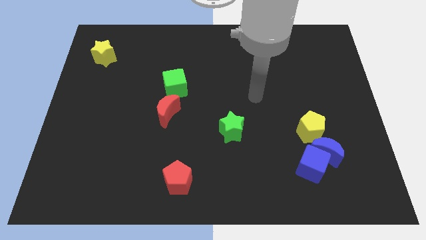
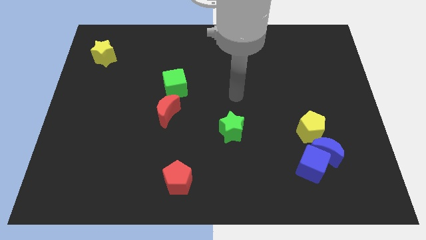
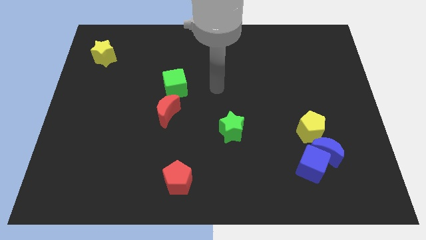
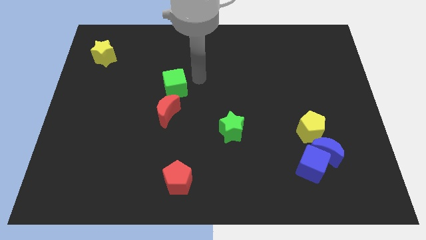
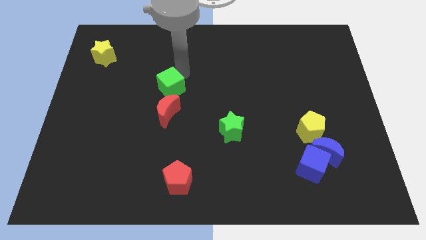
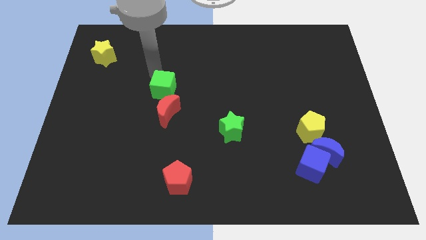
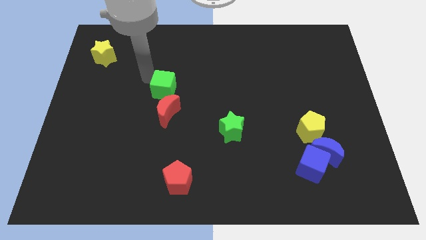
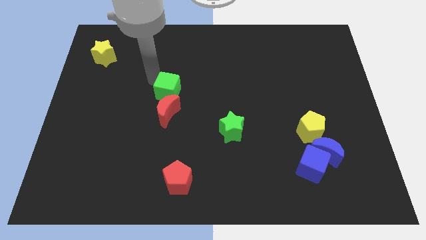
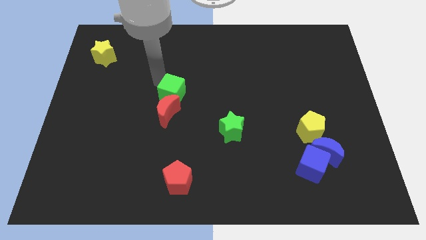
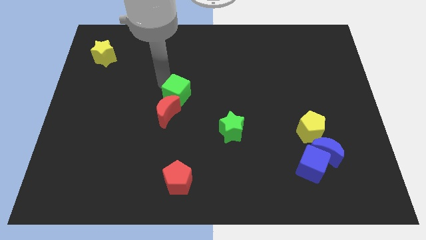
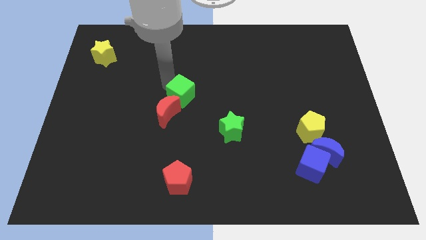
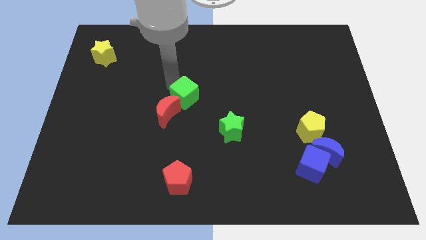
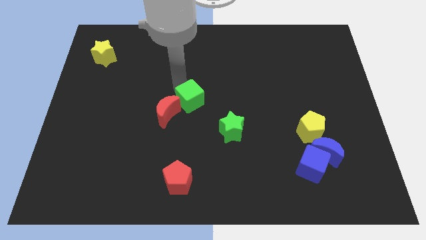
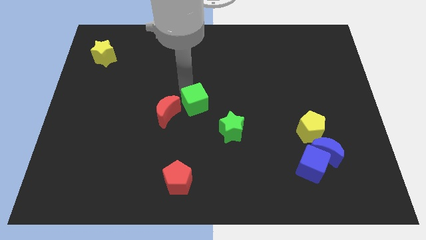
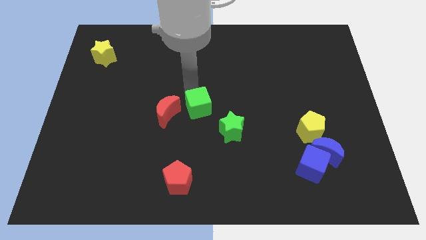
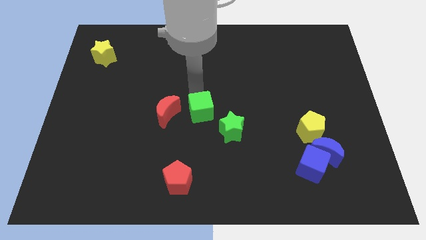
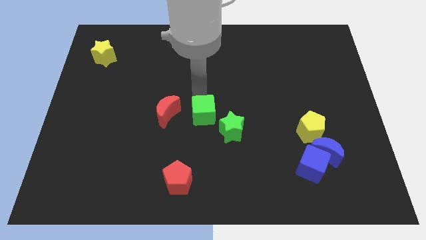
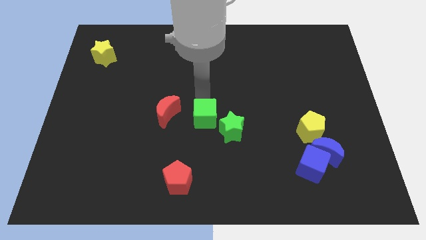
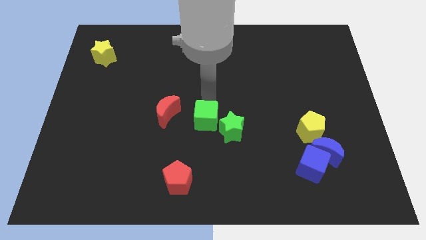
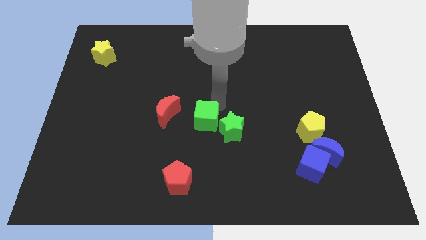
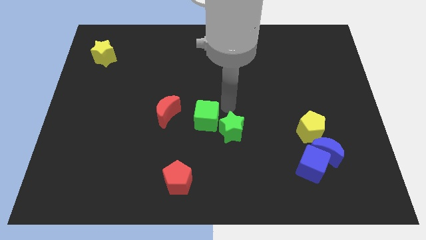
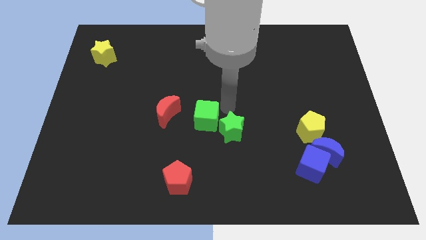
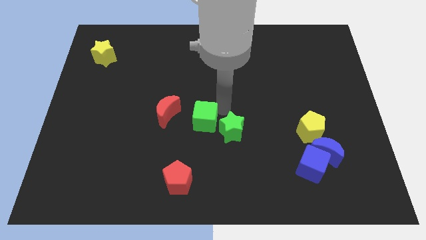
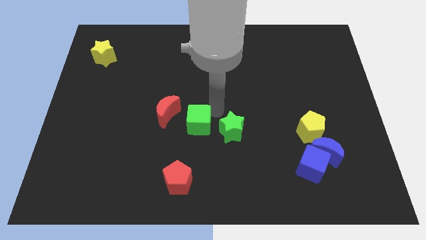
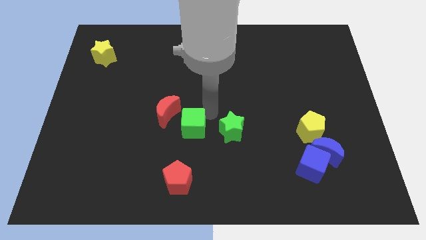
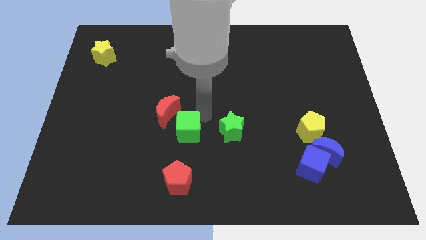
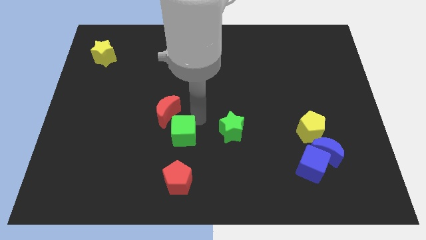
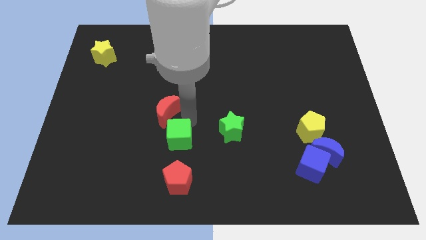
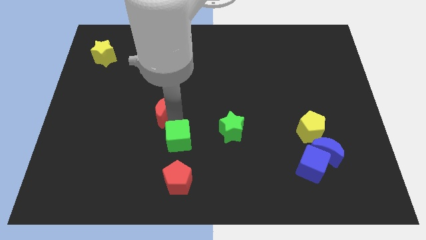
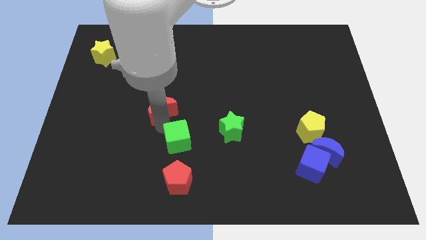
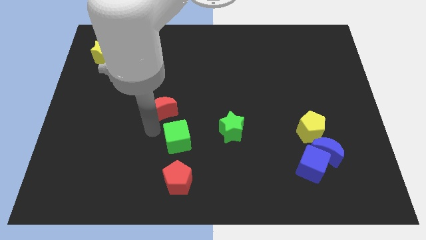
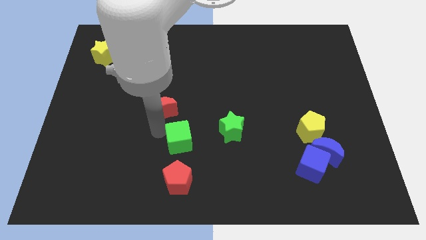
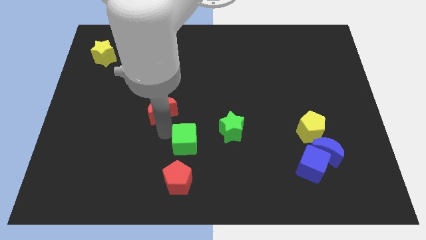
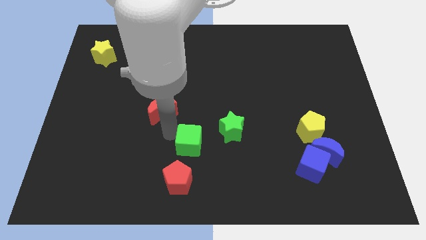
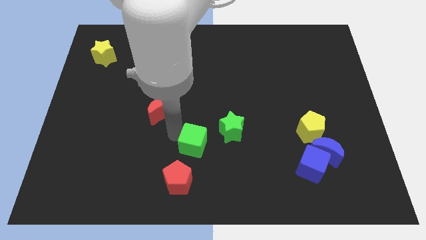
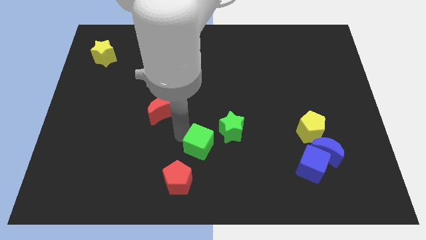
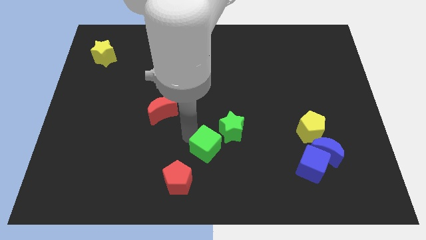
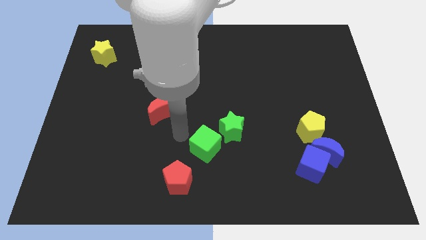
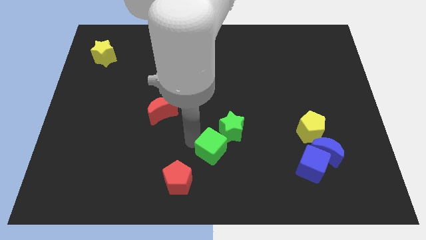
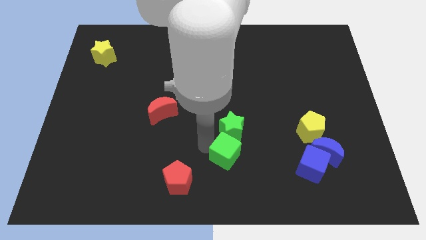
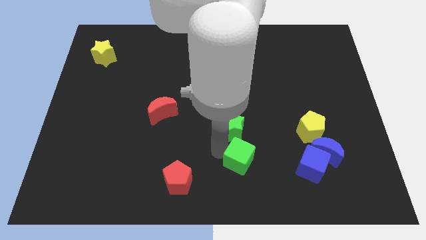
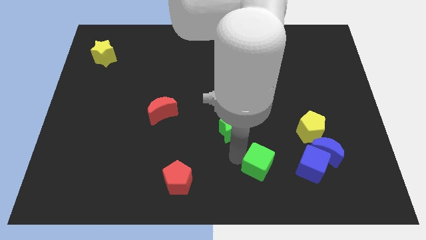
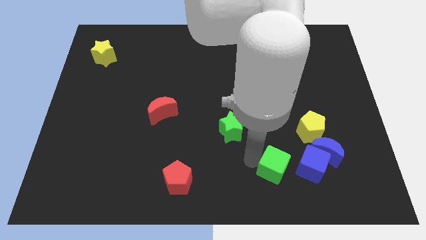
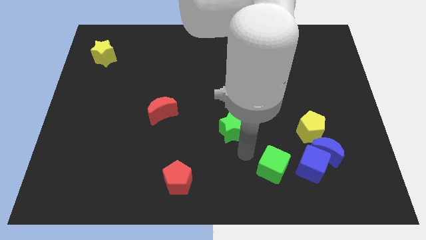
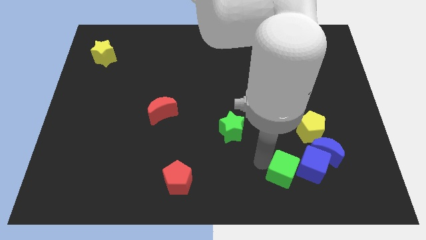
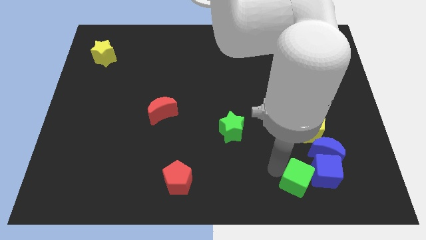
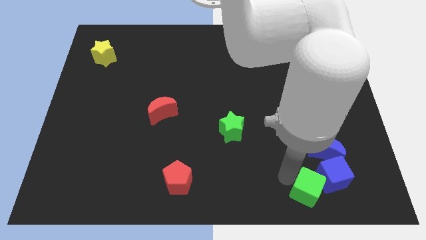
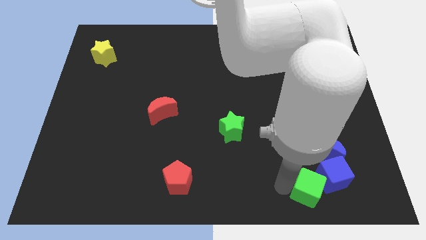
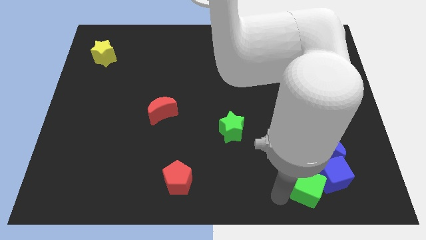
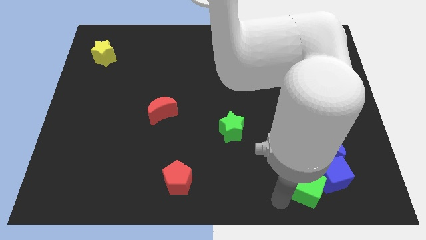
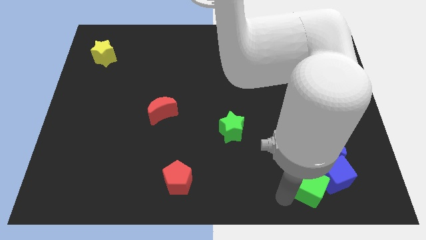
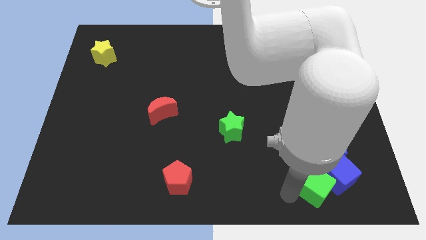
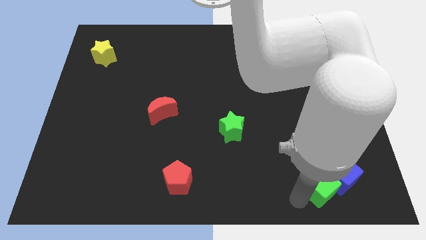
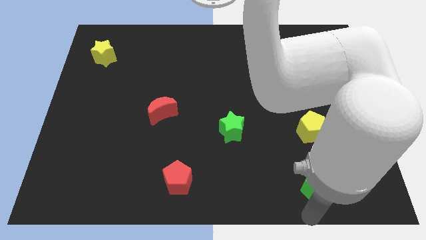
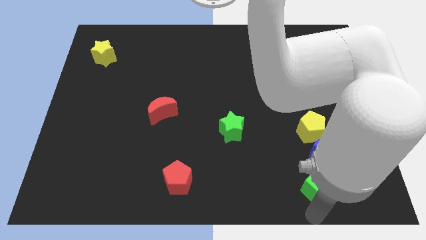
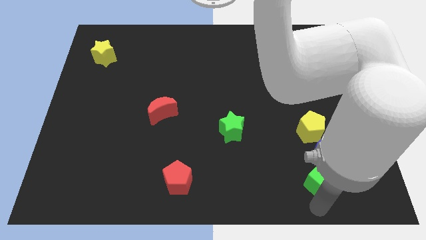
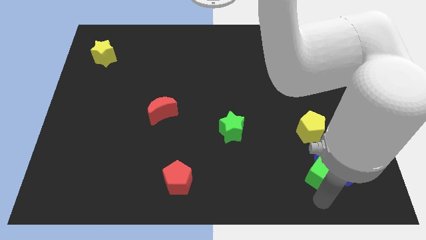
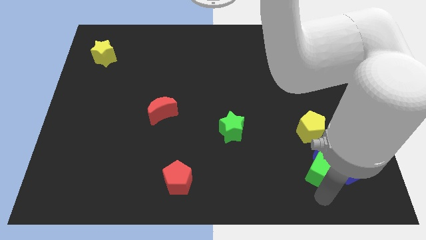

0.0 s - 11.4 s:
slide the green cube to the blue moon

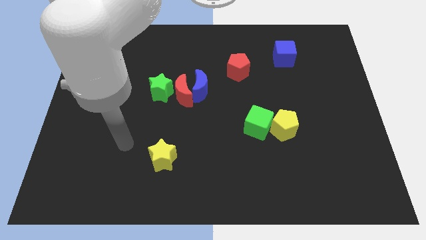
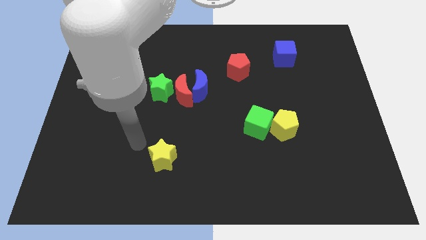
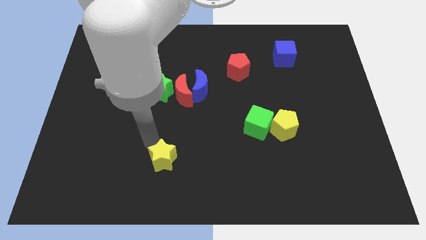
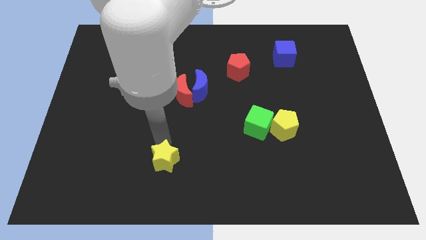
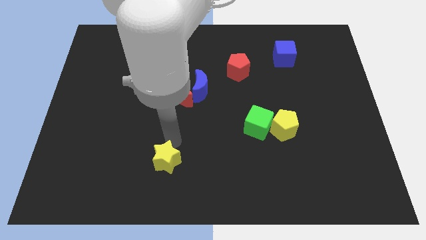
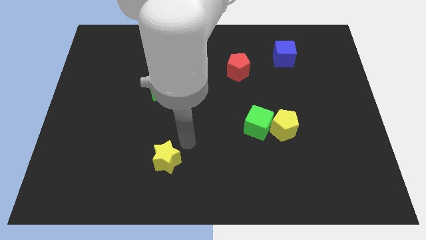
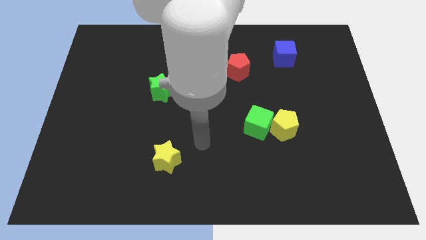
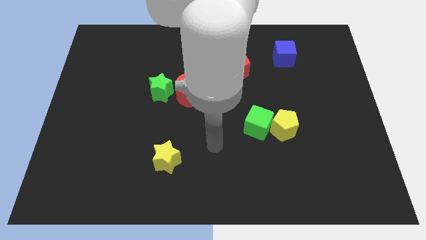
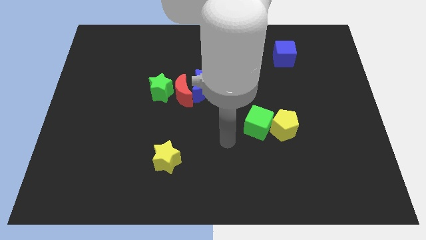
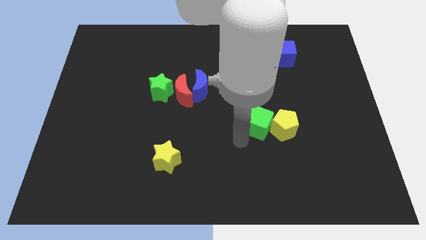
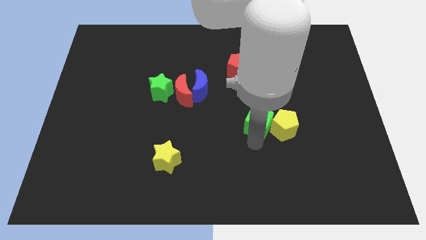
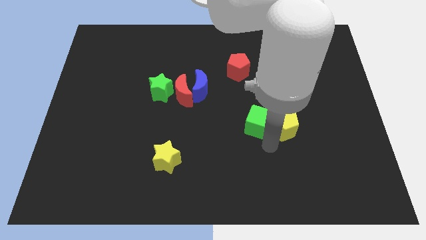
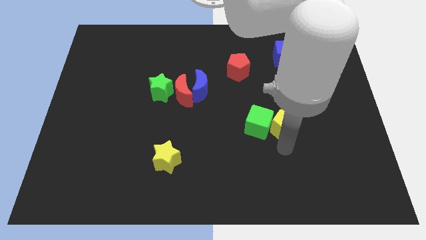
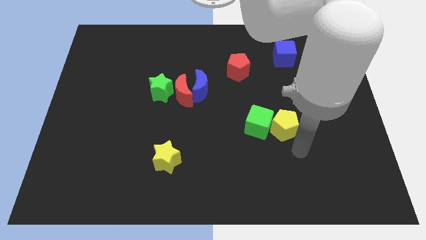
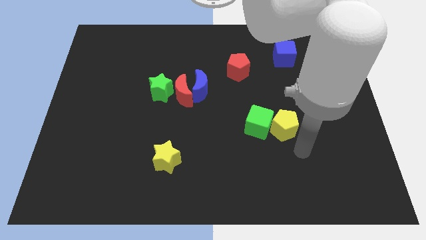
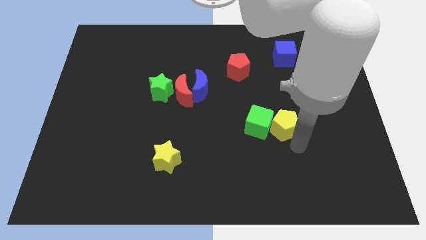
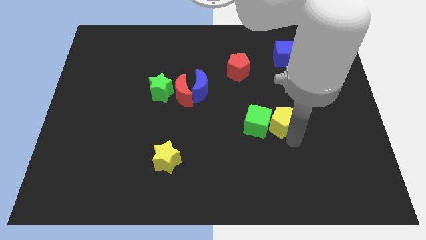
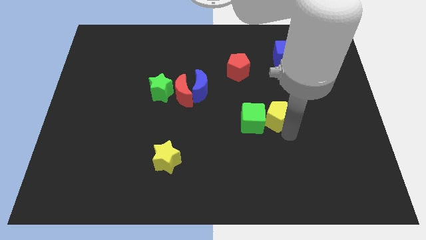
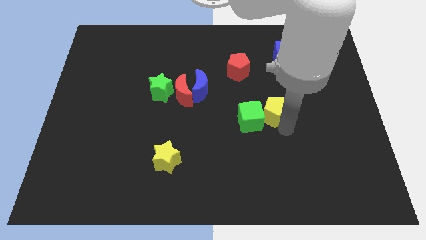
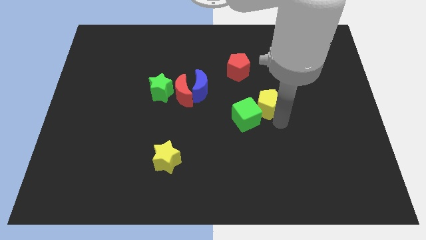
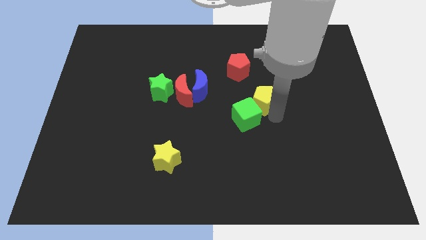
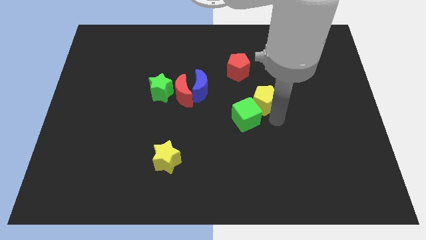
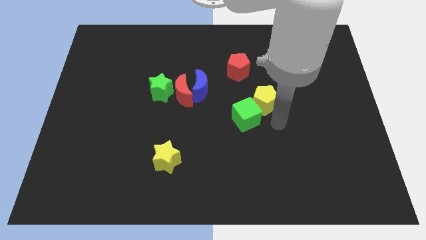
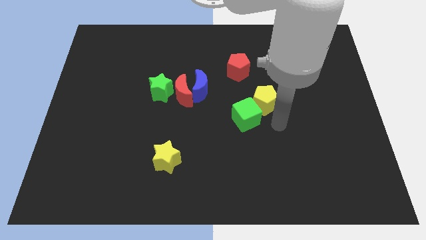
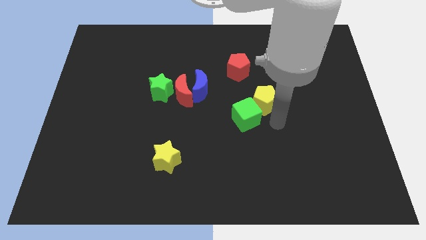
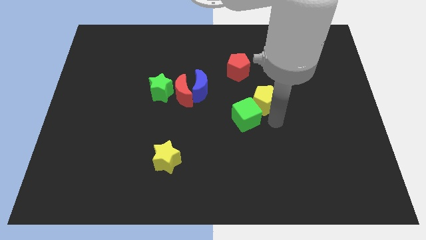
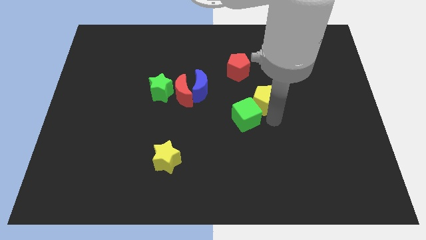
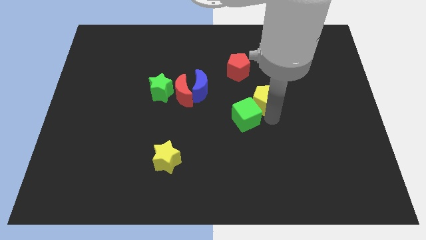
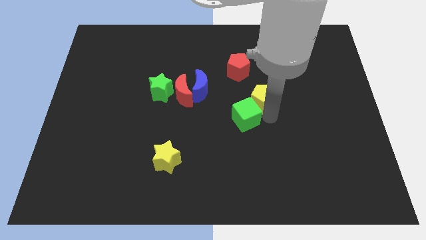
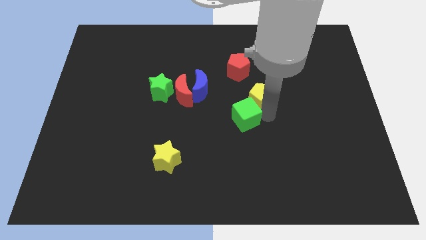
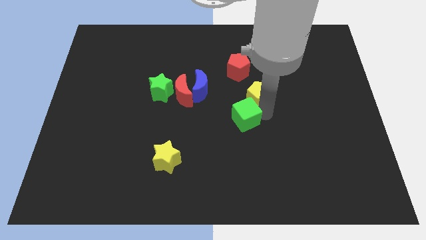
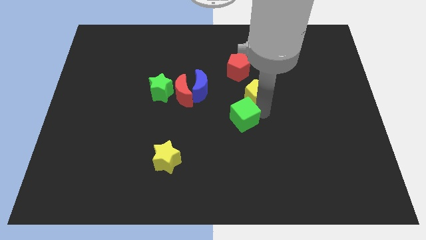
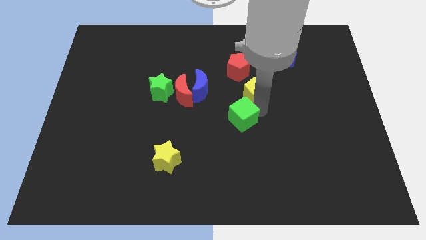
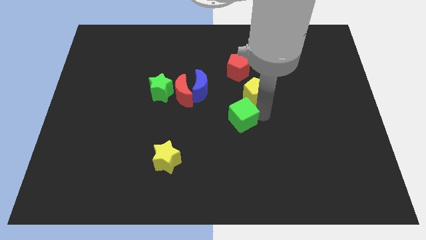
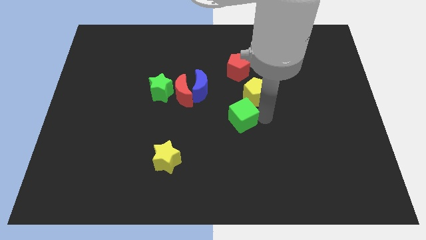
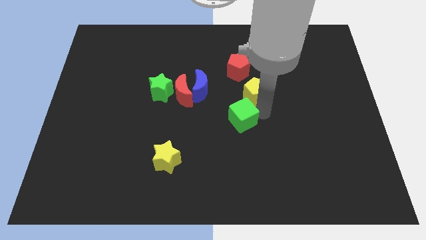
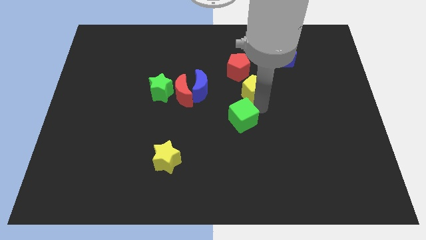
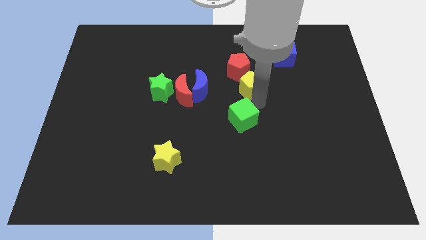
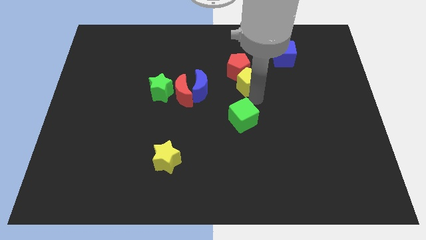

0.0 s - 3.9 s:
push the yellow pentagon close to the red pentagon
